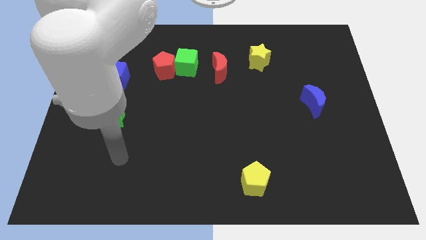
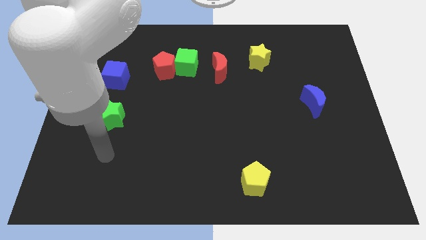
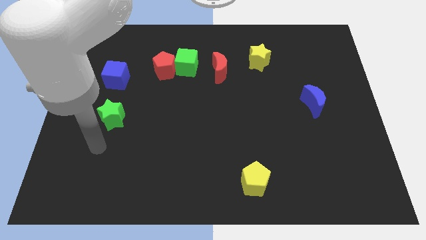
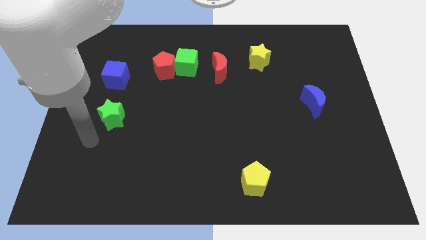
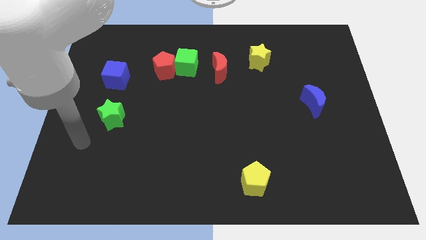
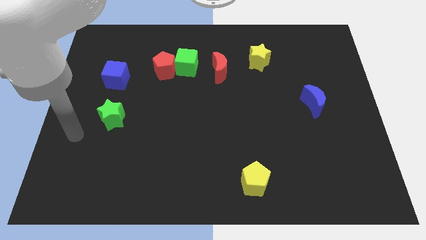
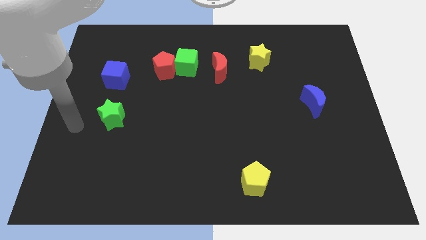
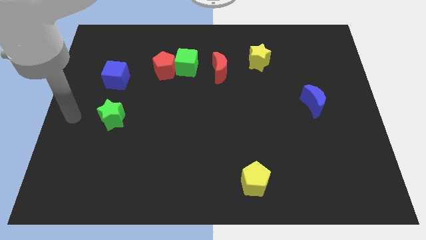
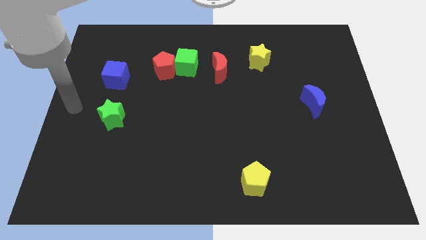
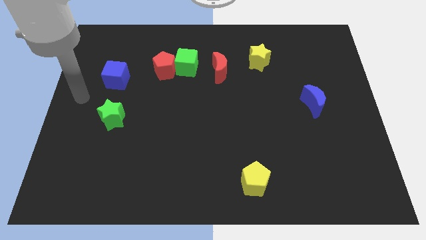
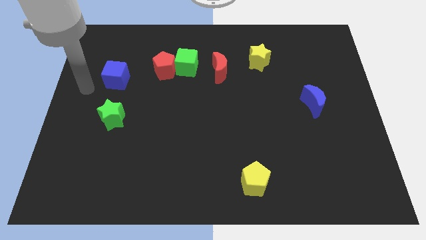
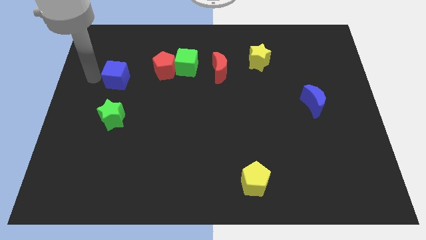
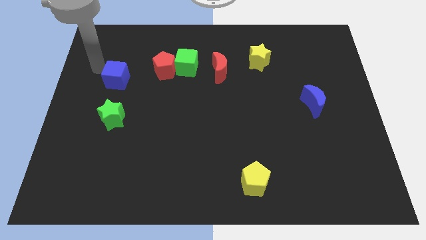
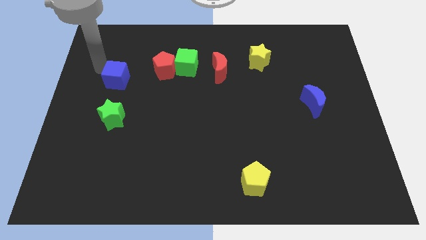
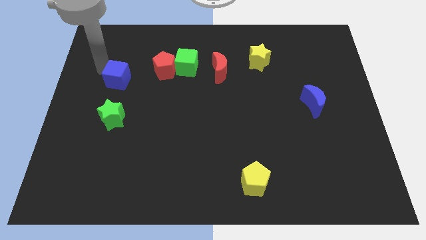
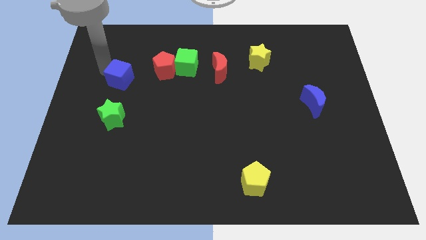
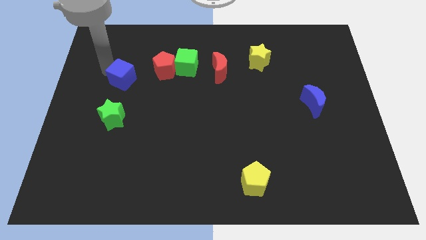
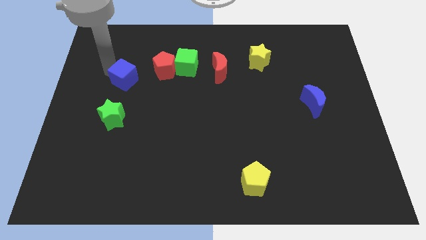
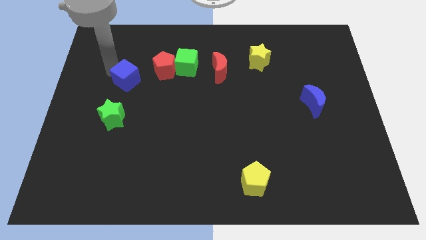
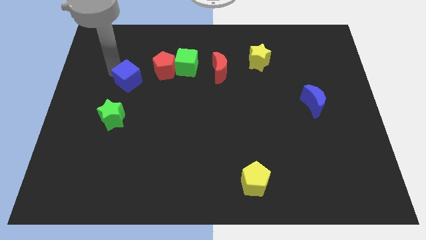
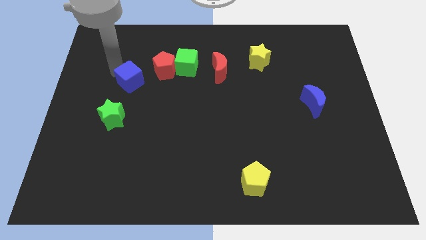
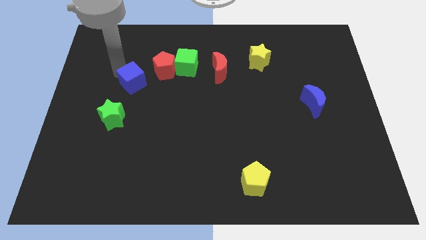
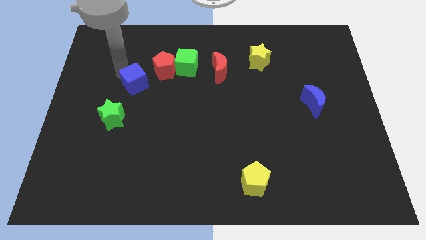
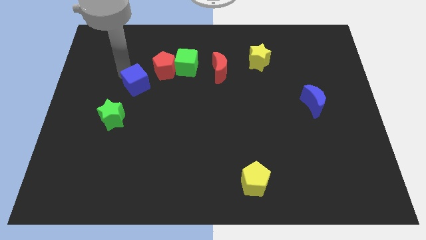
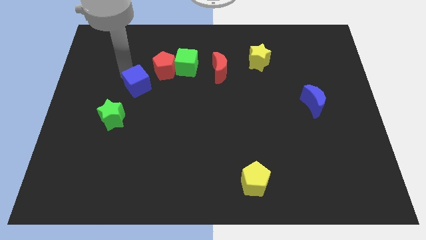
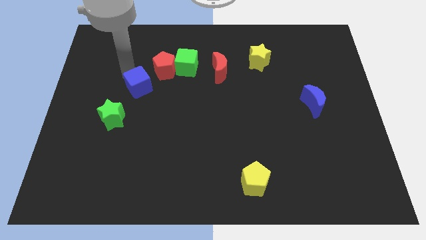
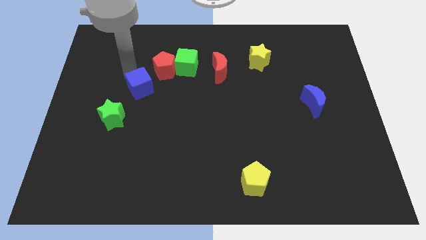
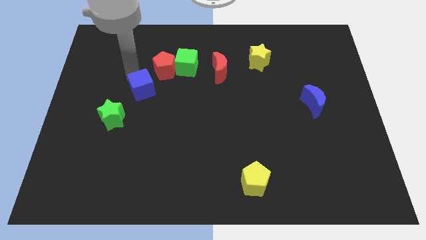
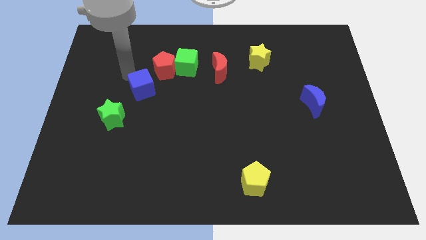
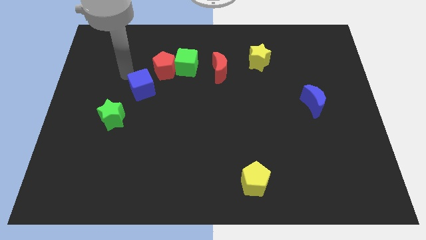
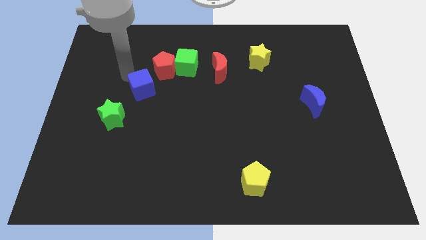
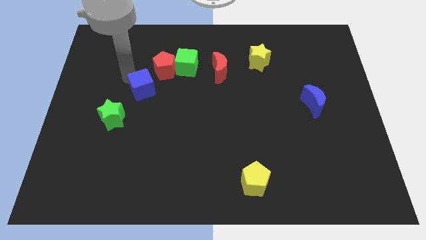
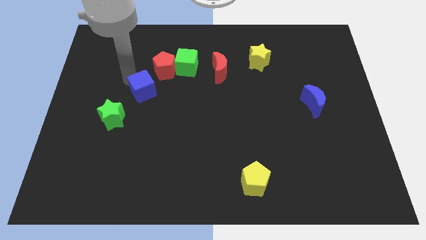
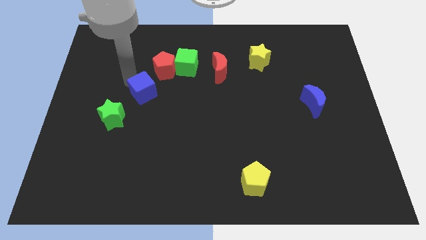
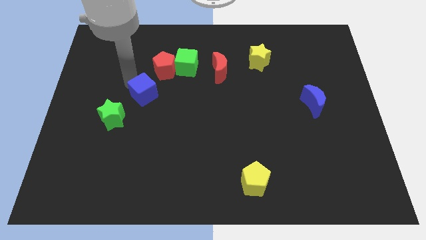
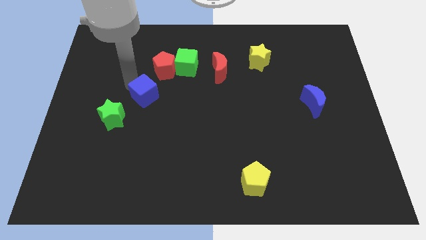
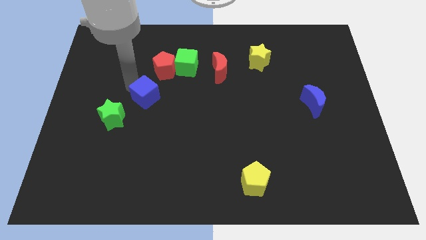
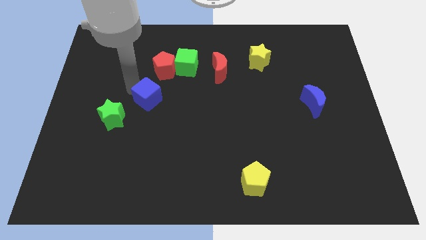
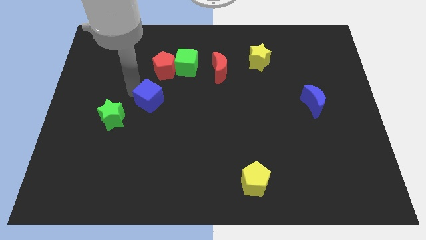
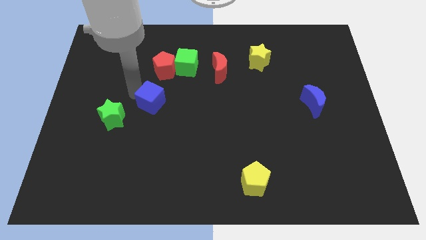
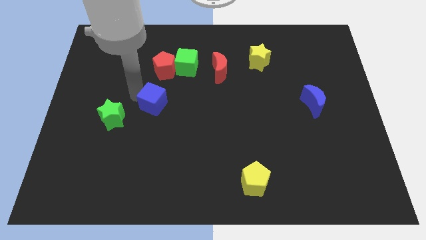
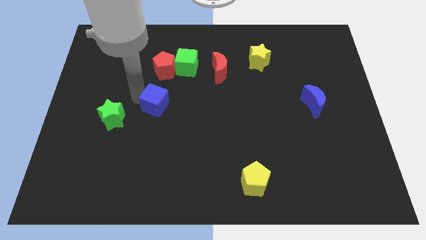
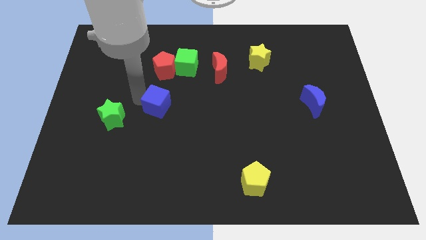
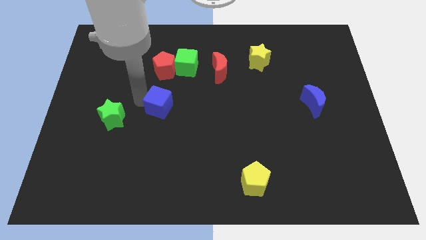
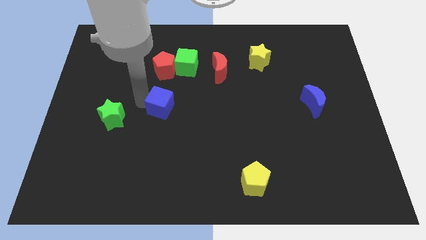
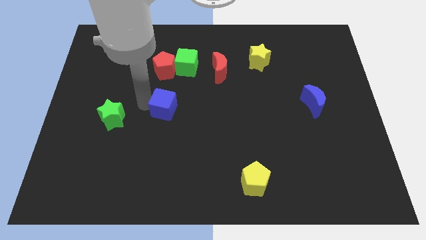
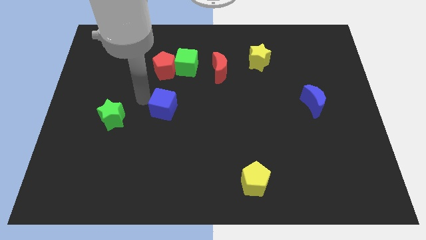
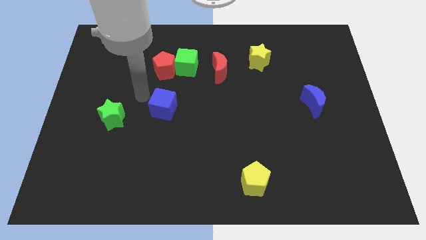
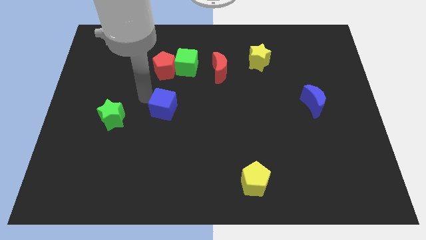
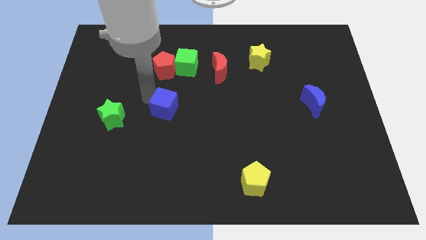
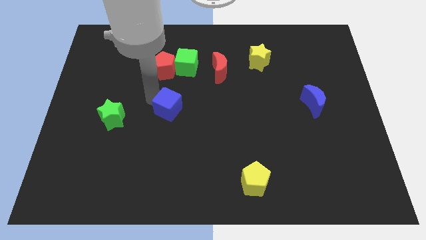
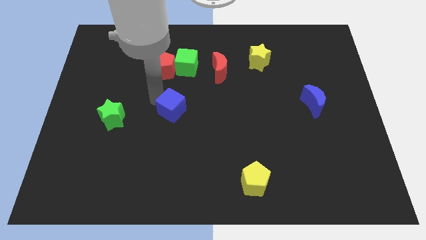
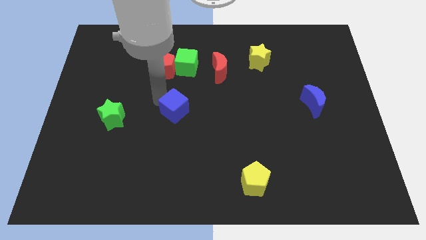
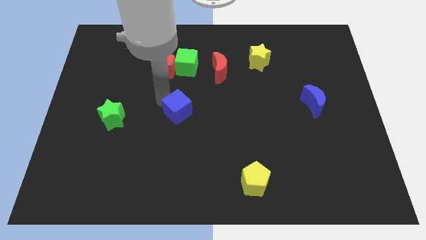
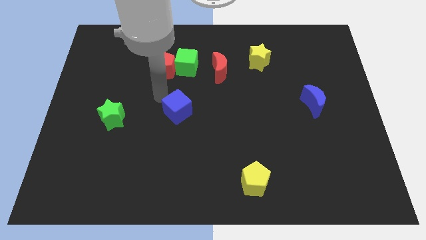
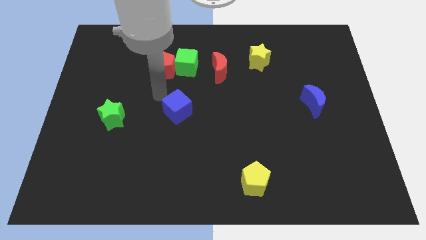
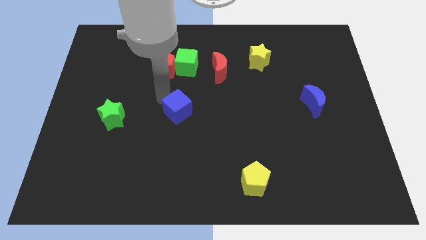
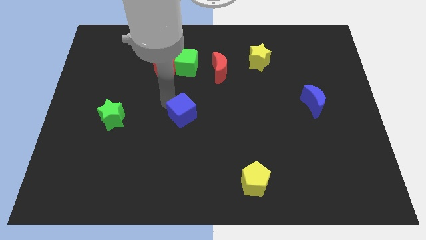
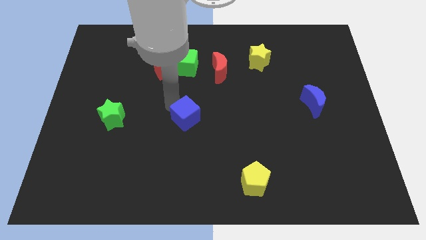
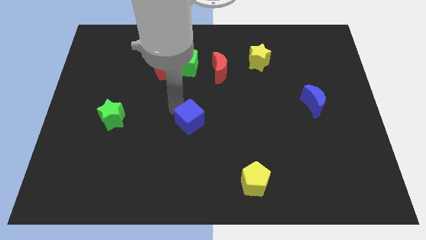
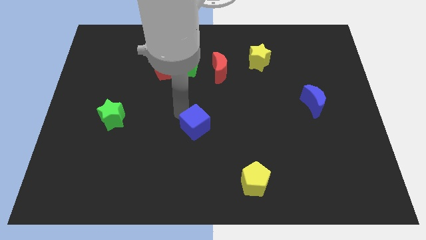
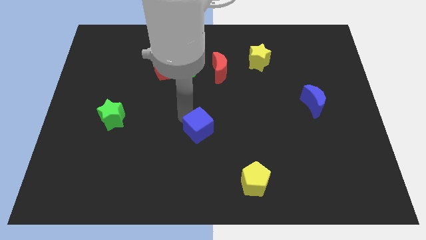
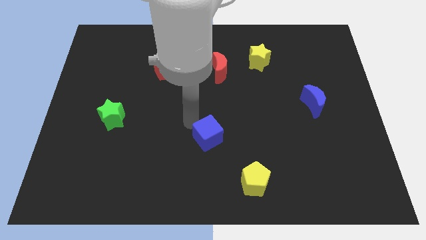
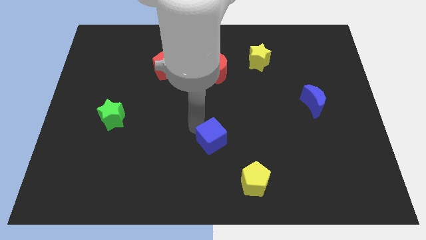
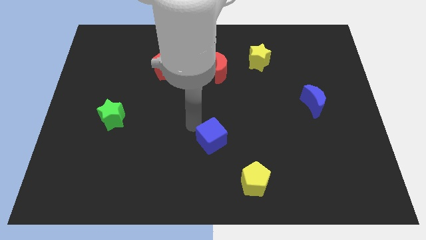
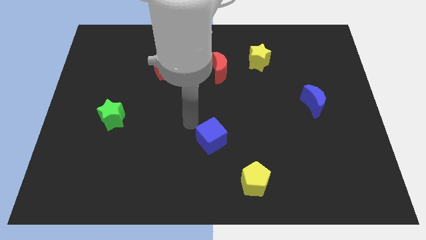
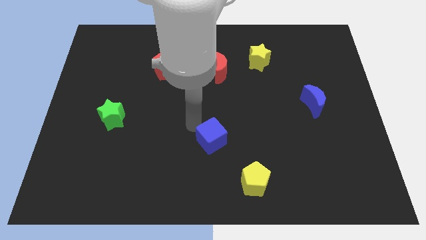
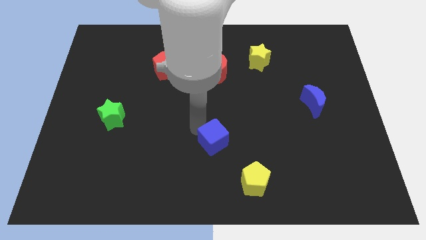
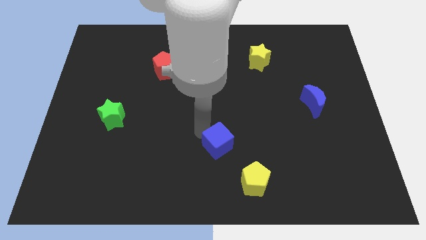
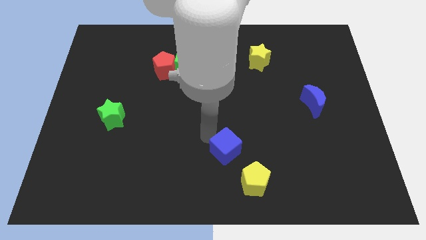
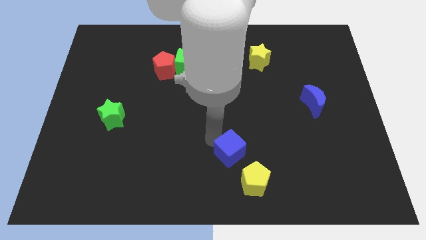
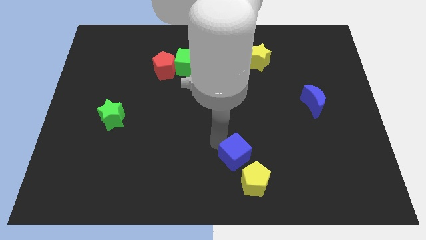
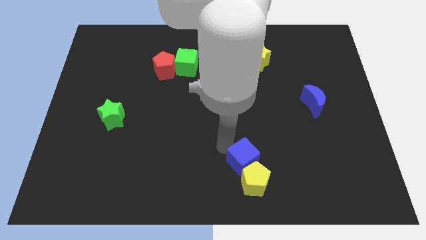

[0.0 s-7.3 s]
push the blue cube towards the yellow pentagon

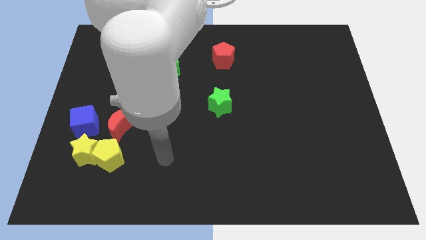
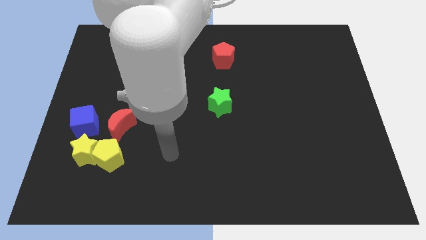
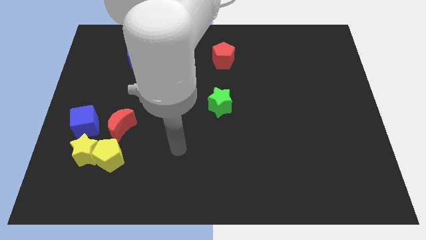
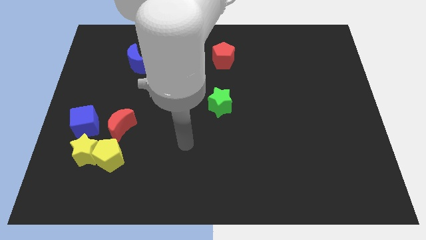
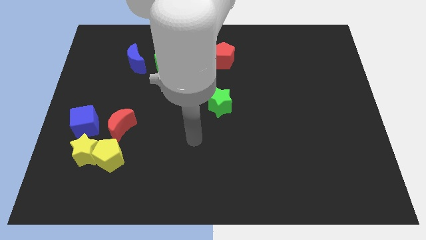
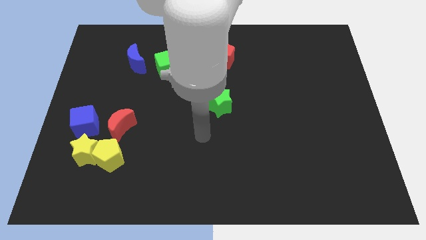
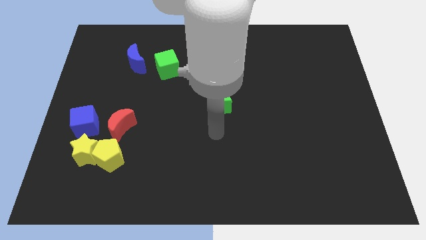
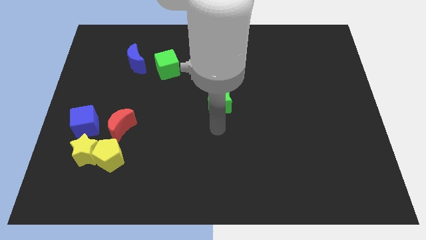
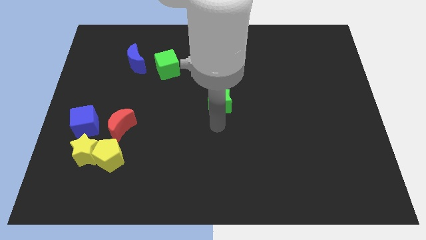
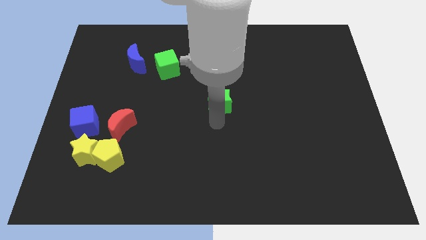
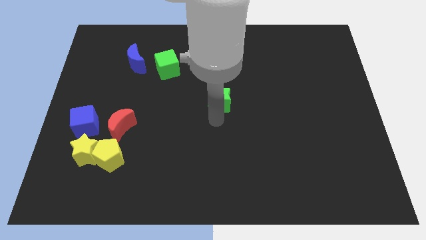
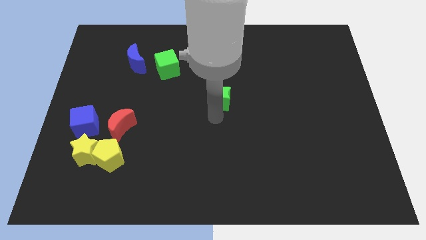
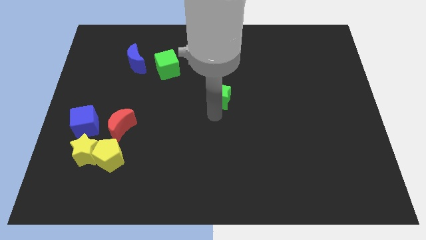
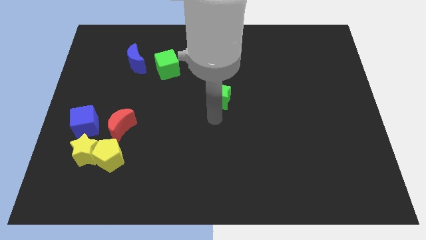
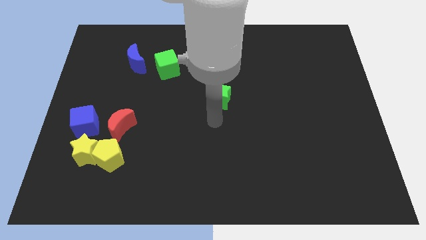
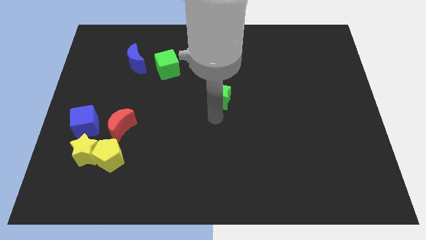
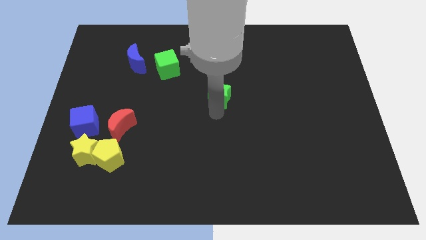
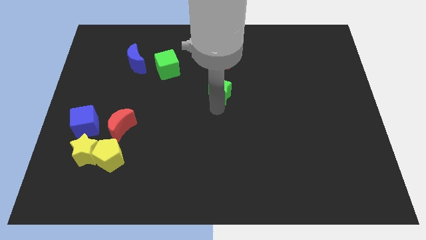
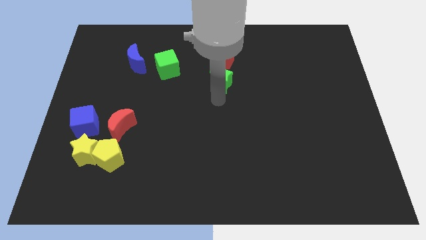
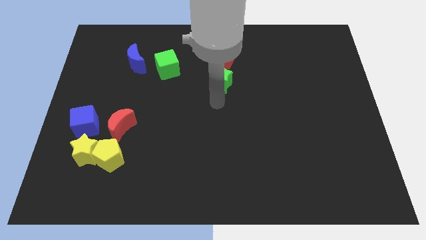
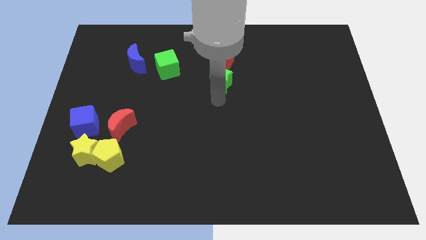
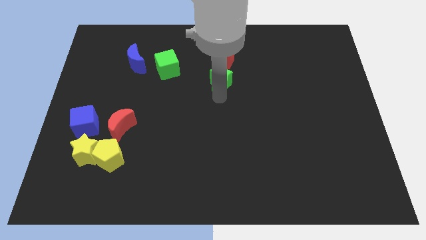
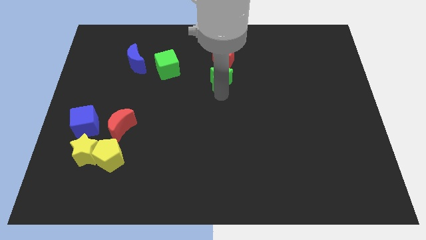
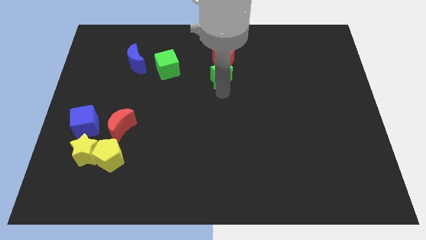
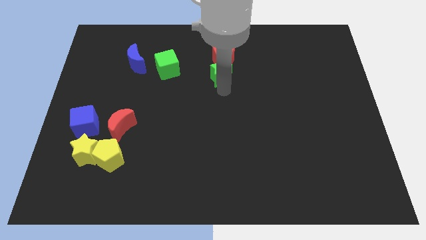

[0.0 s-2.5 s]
slide the green star close to the red pentagon
